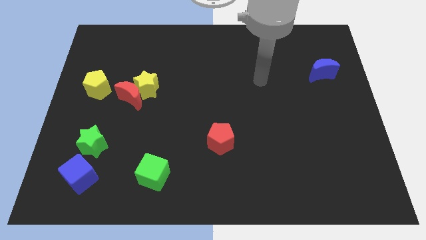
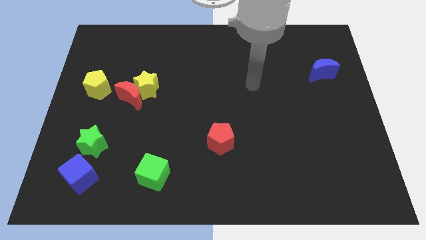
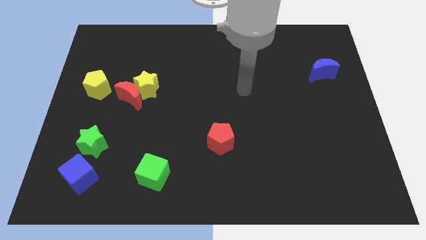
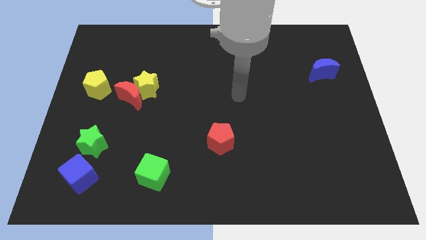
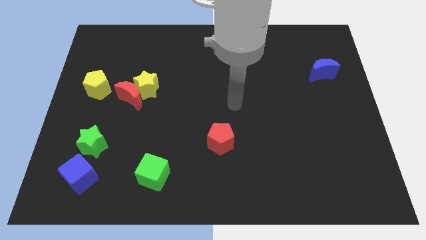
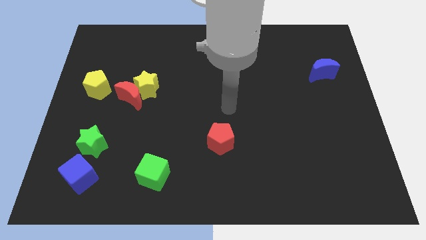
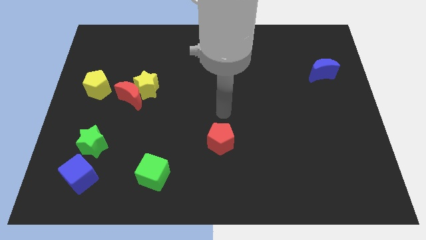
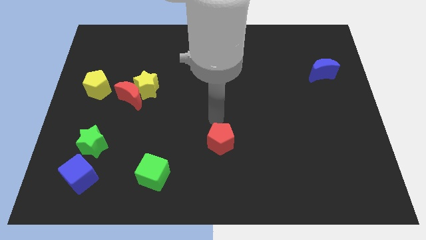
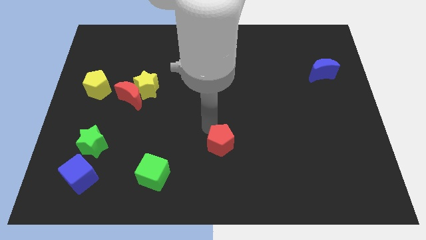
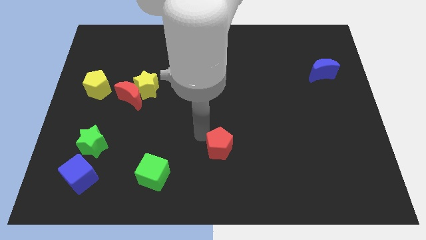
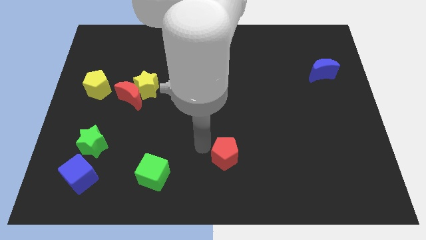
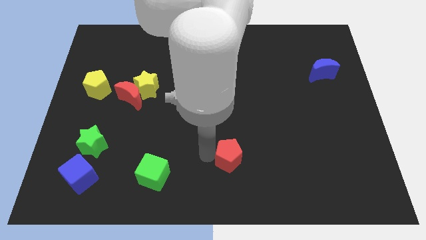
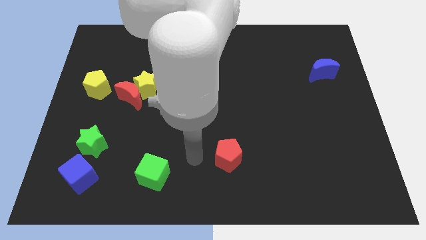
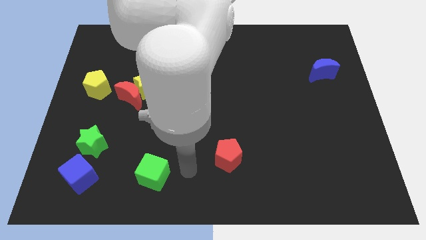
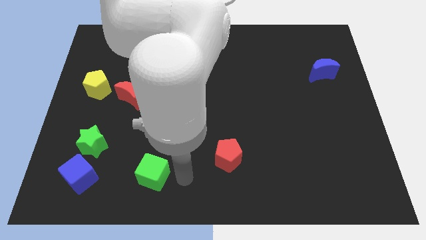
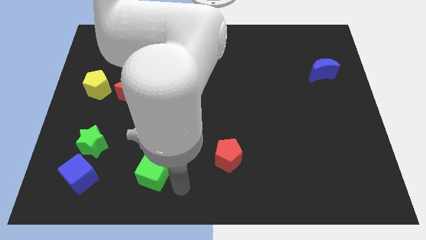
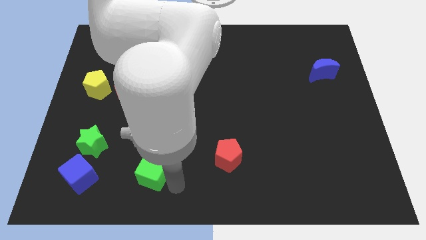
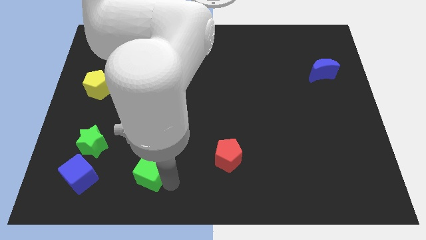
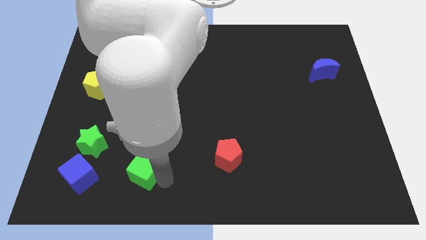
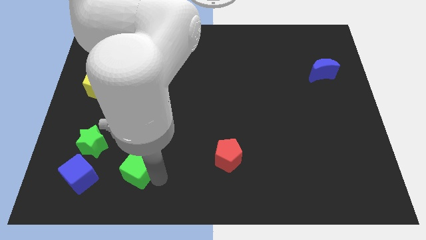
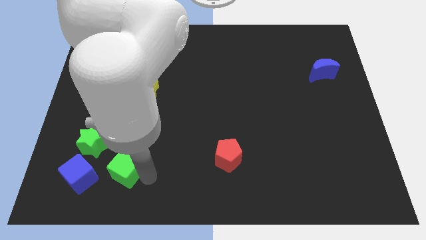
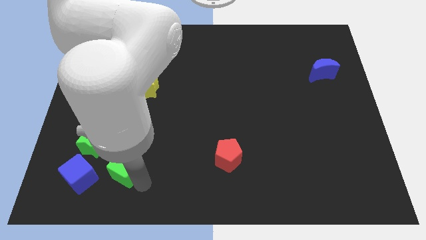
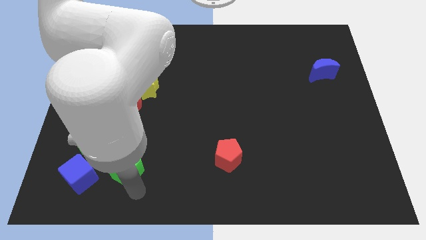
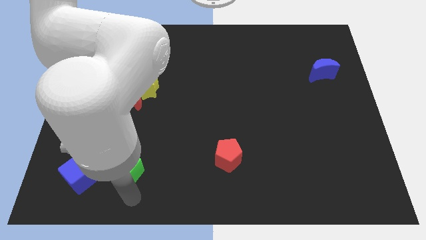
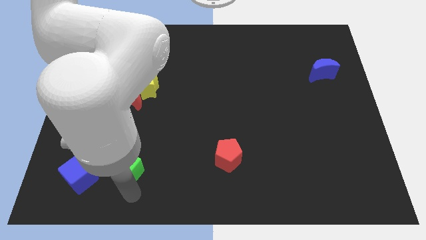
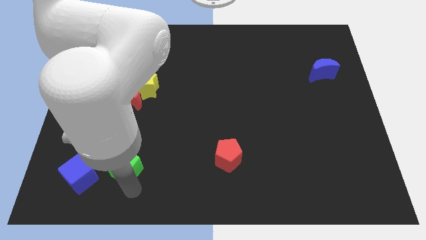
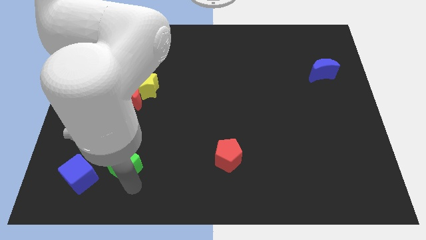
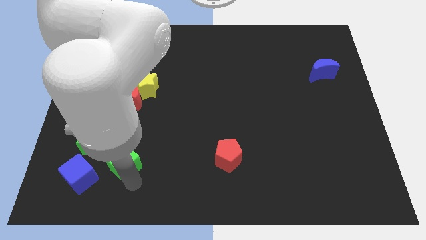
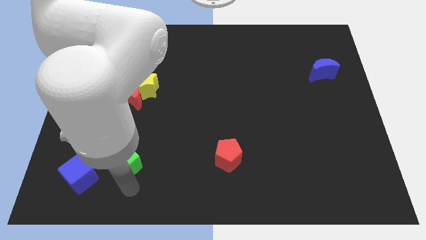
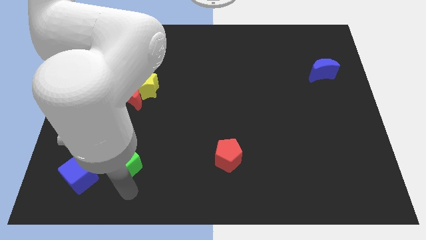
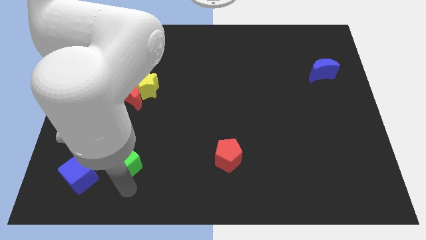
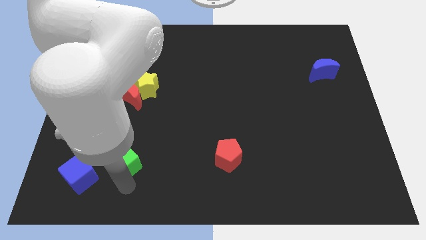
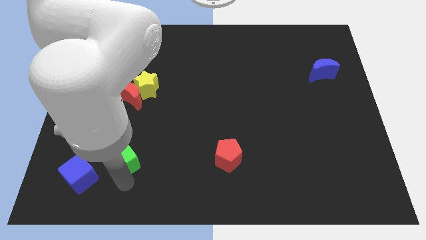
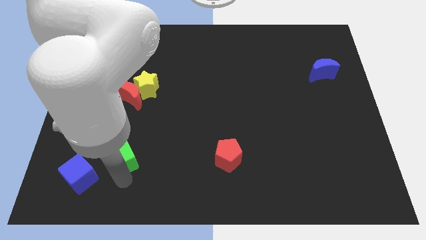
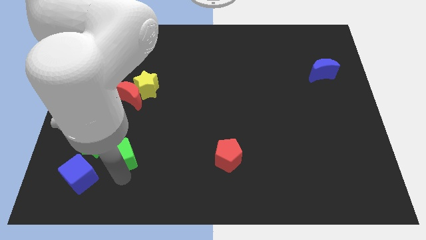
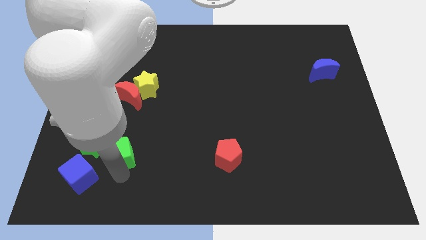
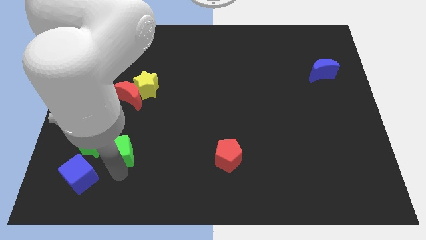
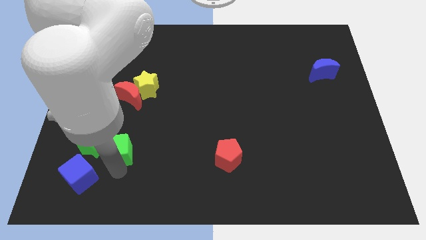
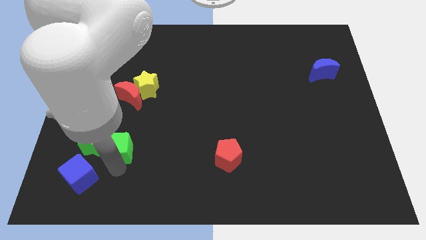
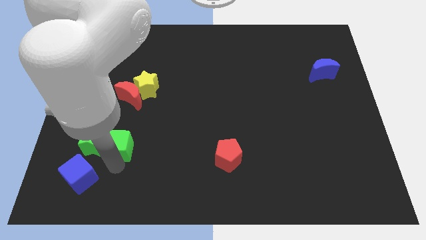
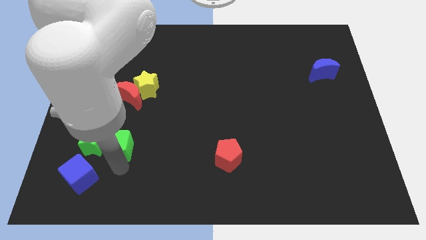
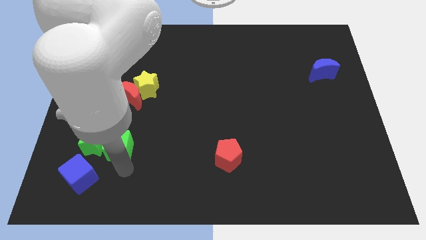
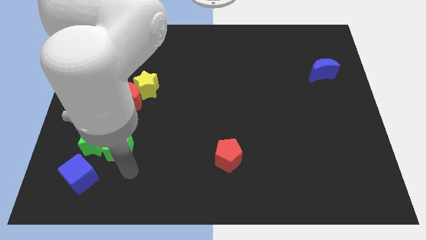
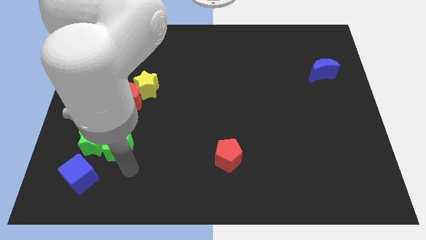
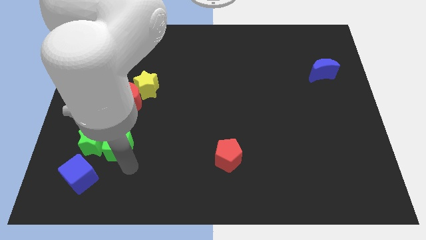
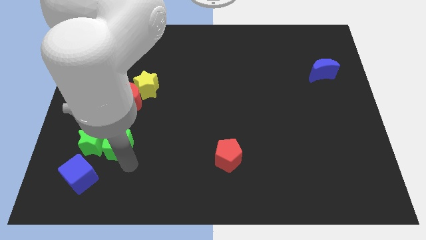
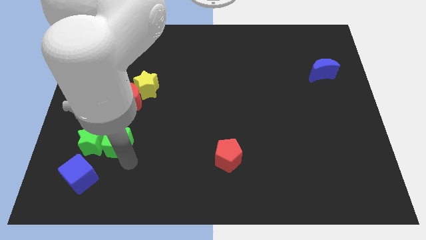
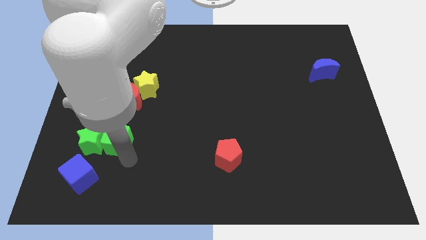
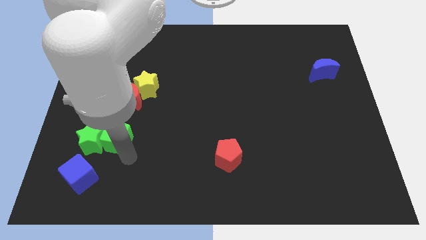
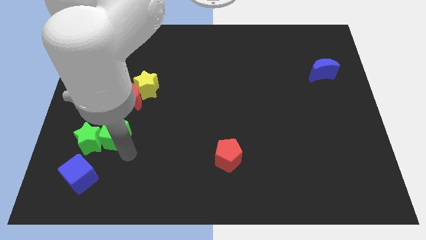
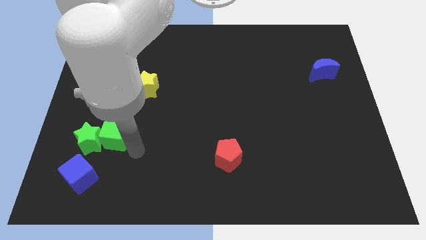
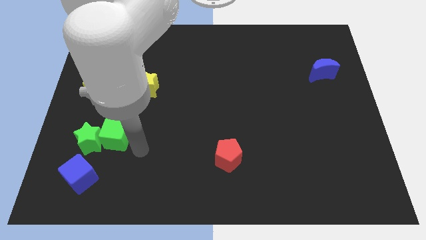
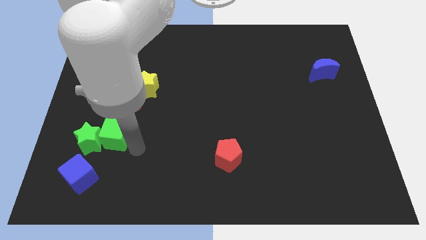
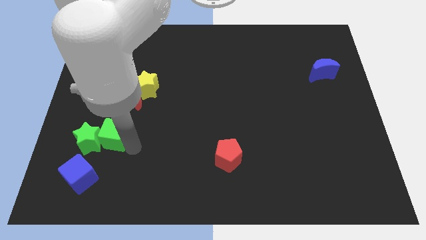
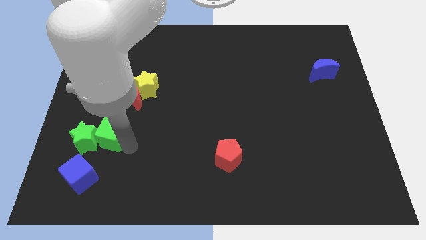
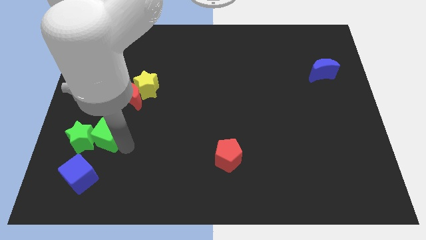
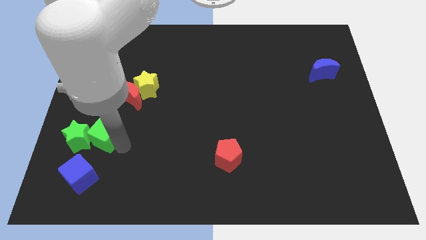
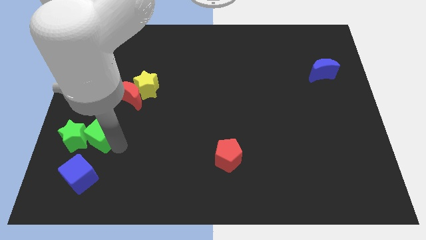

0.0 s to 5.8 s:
move the green cube below the yellow pentagon

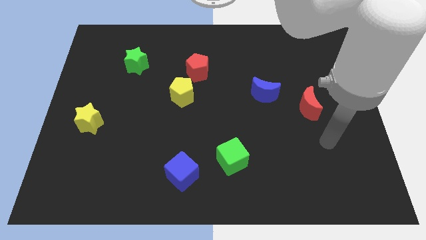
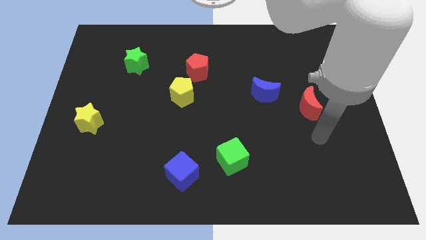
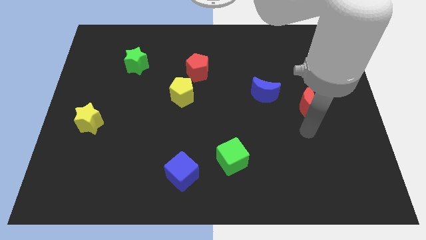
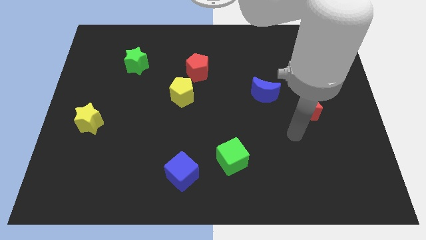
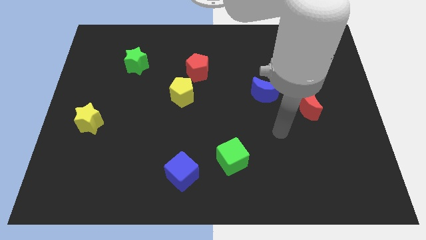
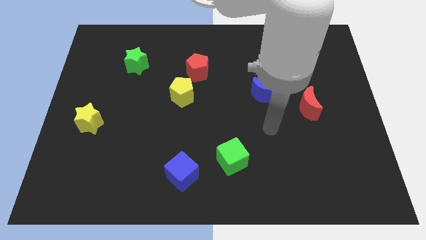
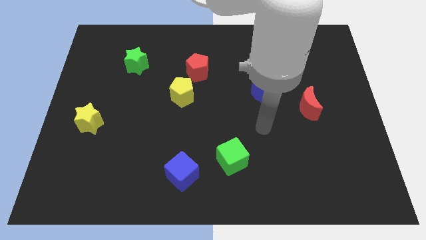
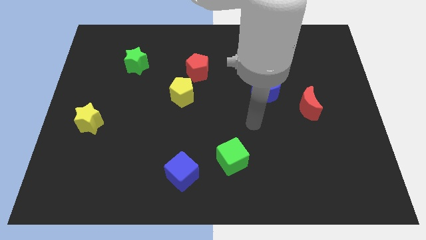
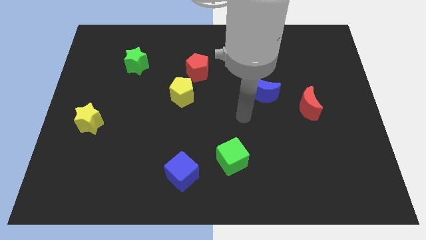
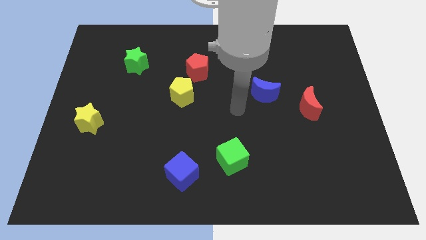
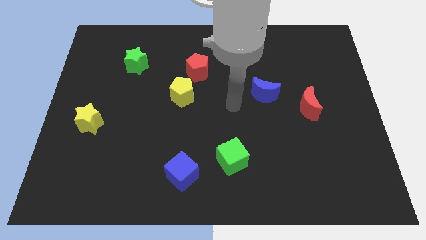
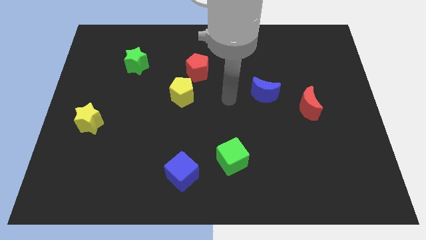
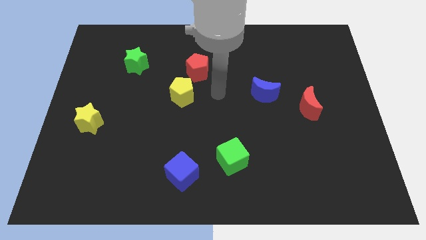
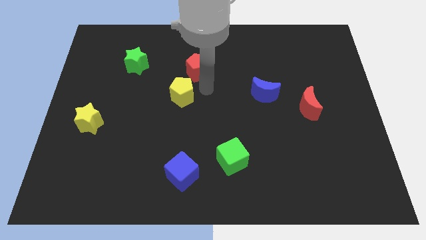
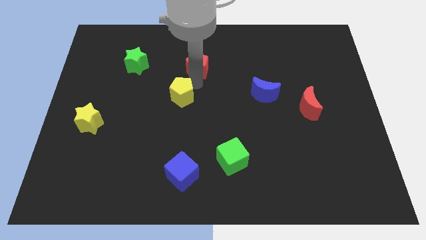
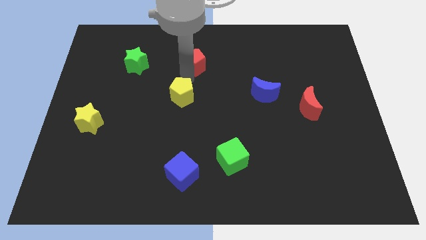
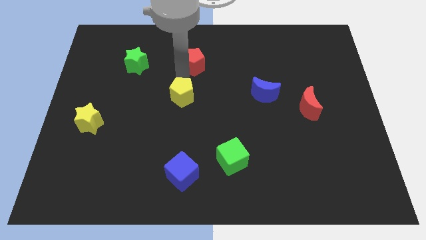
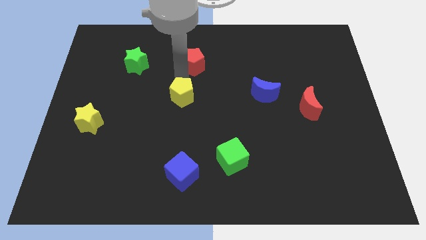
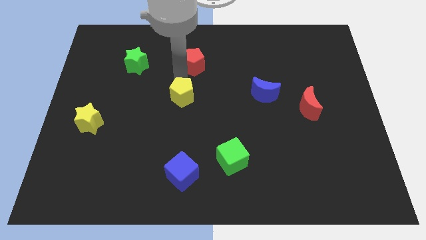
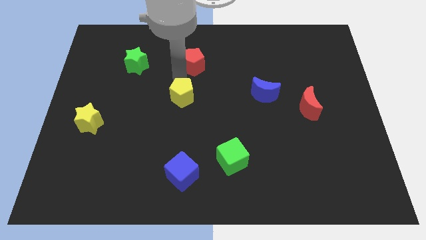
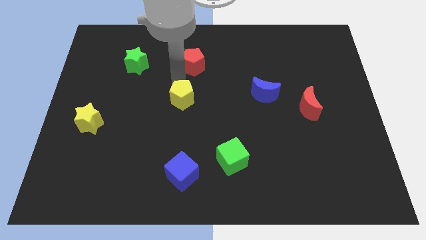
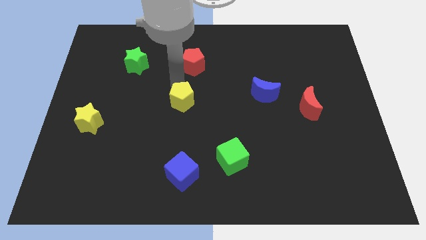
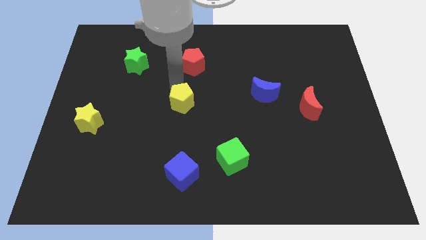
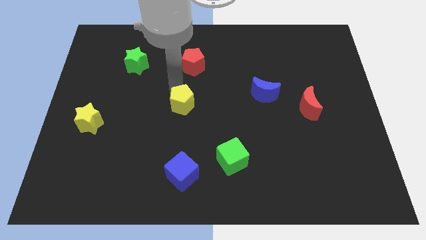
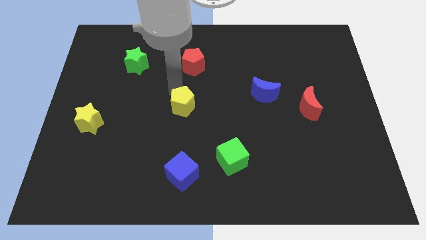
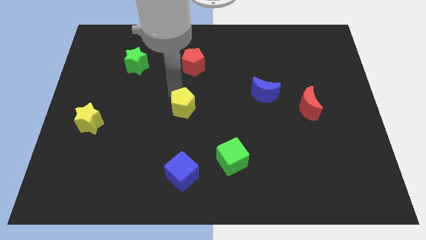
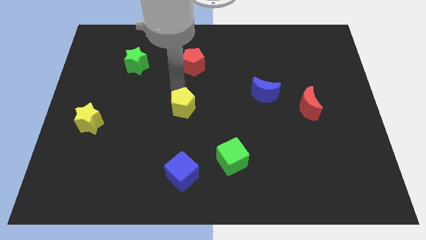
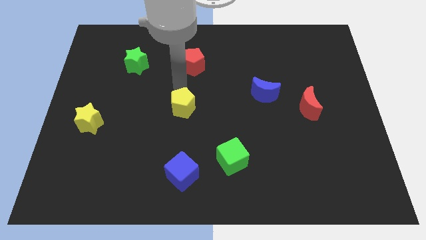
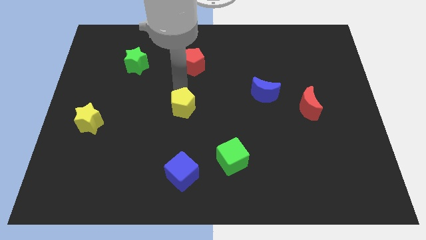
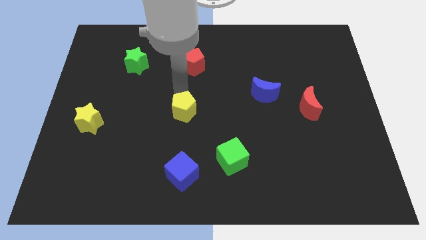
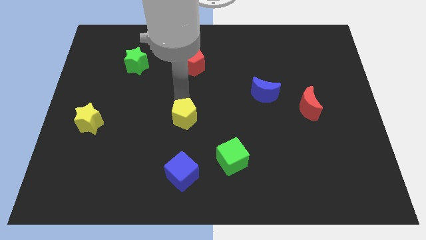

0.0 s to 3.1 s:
push the yellow pentagon to the top side of the blue cube
